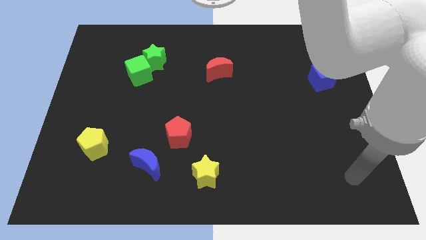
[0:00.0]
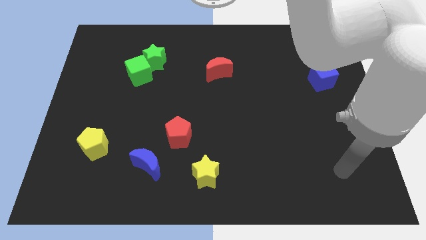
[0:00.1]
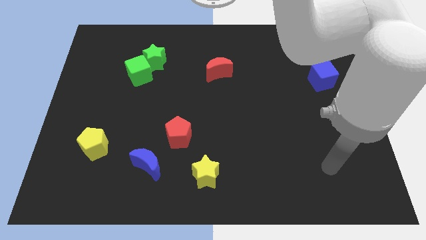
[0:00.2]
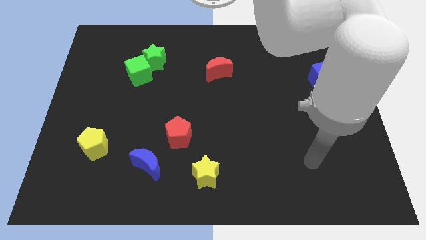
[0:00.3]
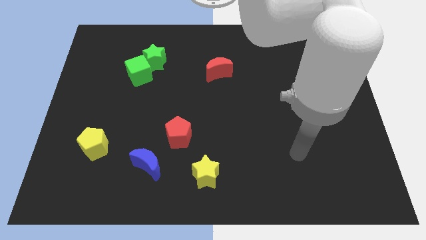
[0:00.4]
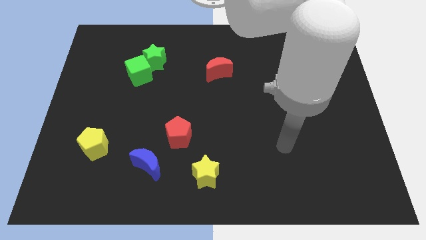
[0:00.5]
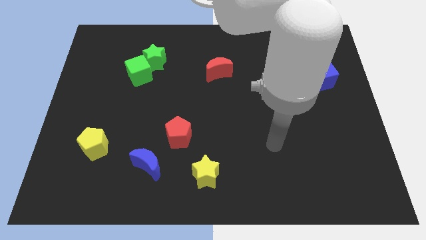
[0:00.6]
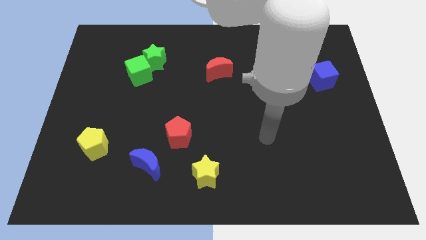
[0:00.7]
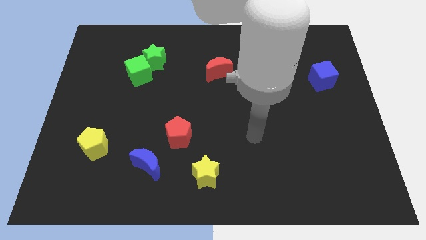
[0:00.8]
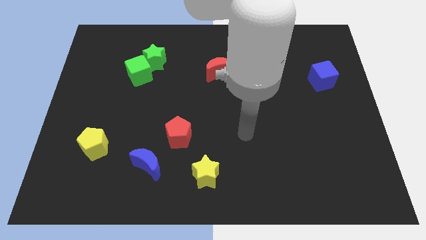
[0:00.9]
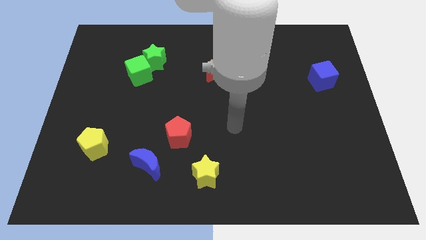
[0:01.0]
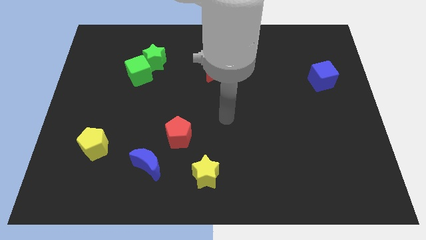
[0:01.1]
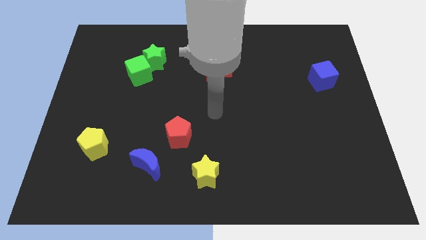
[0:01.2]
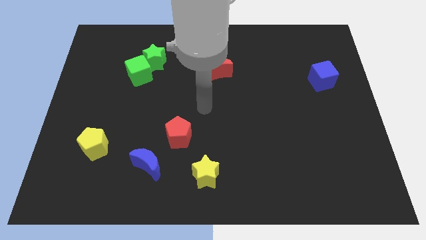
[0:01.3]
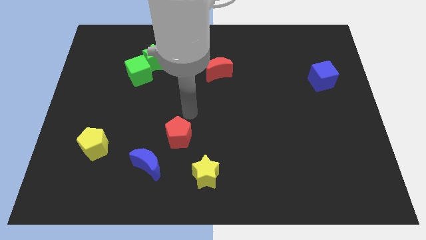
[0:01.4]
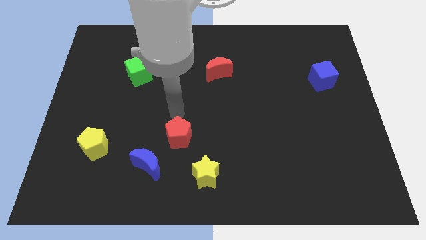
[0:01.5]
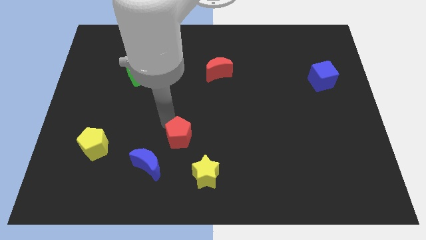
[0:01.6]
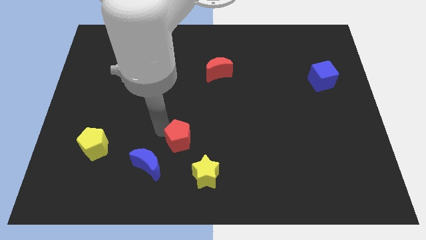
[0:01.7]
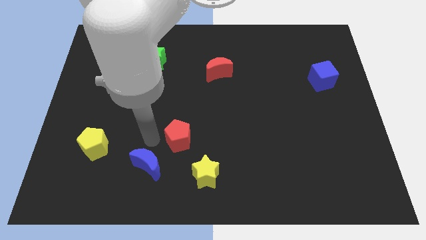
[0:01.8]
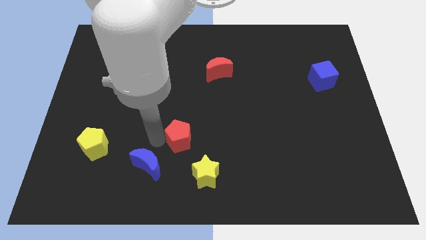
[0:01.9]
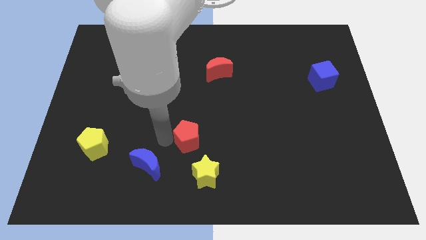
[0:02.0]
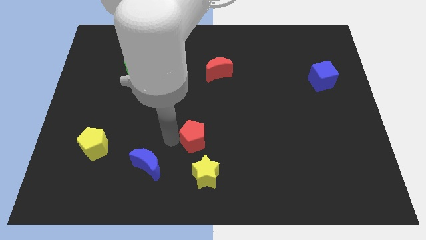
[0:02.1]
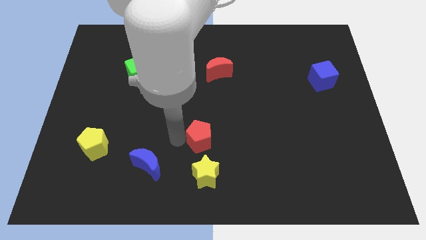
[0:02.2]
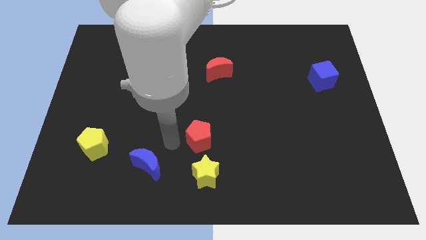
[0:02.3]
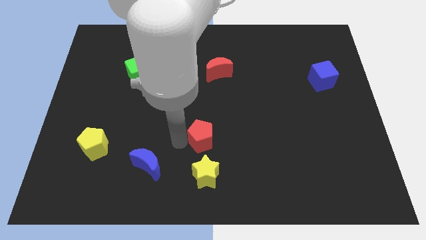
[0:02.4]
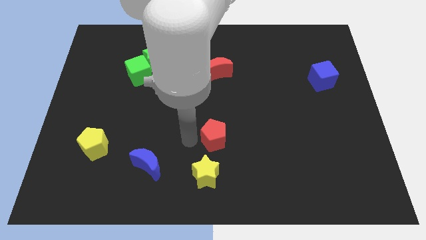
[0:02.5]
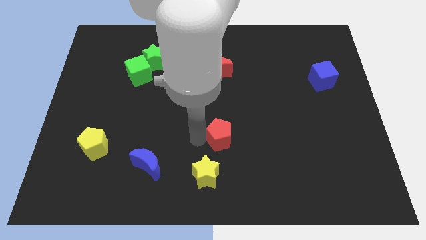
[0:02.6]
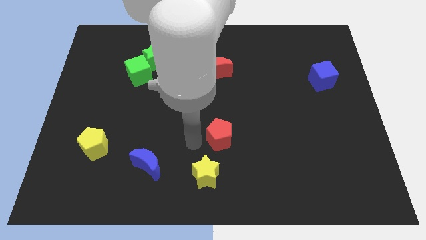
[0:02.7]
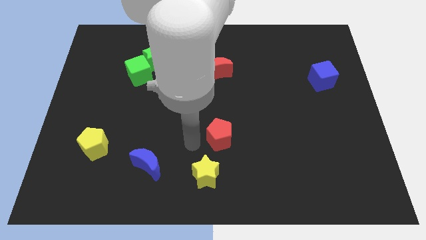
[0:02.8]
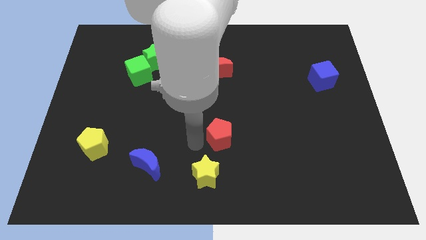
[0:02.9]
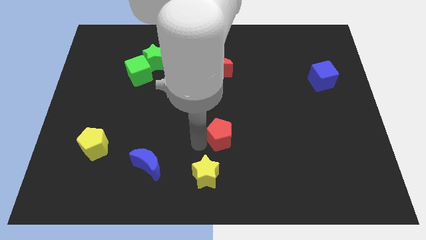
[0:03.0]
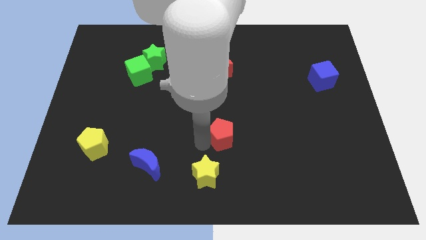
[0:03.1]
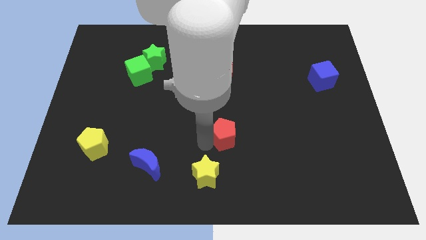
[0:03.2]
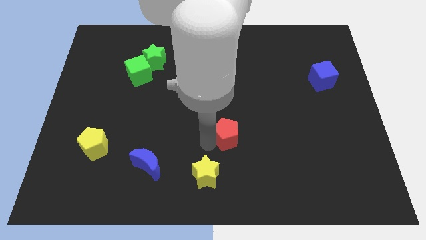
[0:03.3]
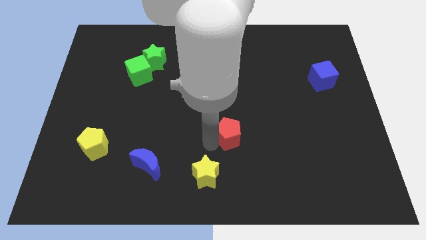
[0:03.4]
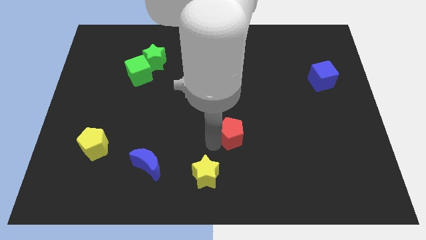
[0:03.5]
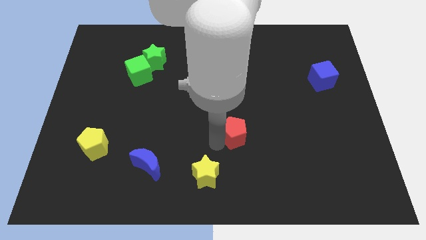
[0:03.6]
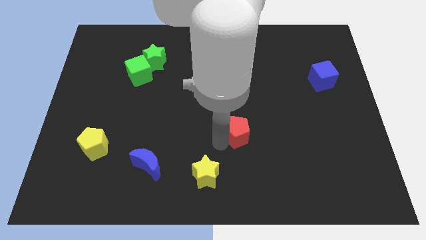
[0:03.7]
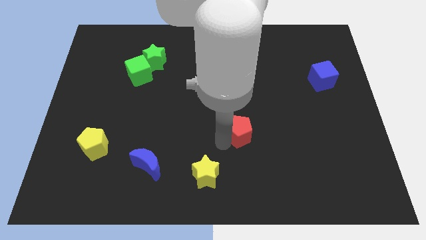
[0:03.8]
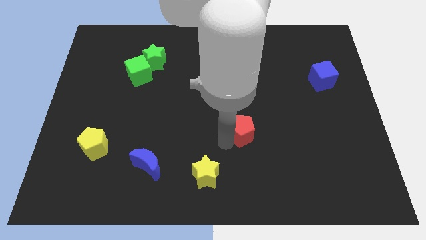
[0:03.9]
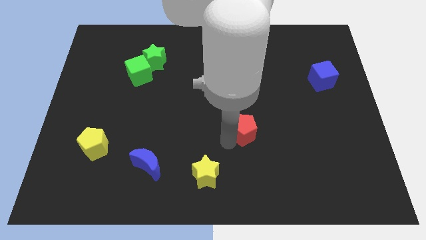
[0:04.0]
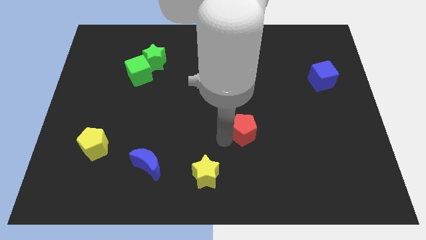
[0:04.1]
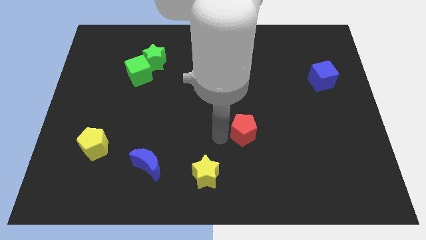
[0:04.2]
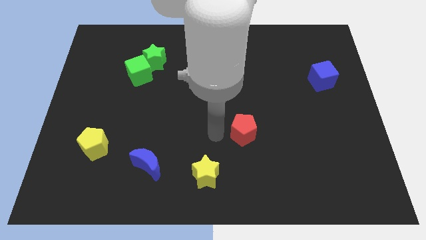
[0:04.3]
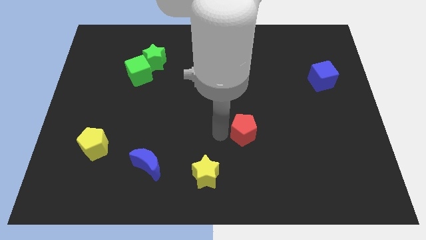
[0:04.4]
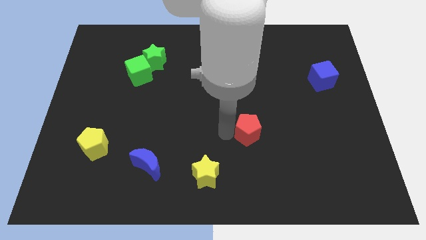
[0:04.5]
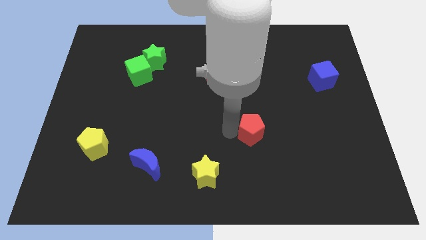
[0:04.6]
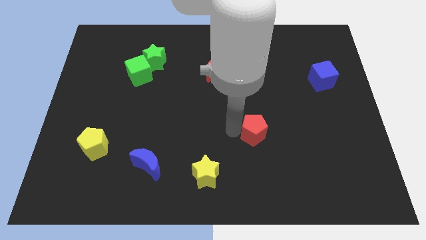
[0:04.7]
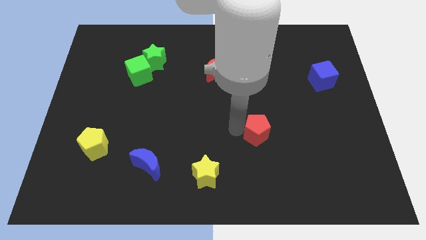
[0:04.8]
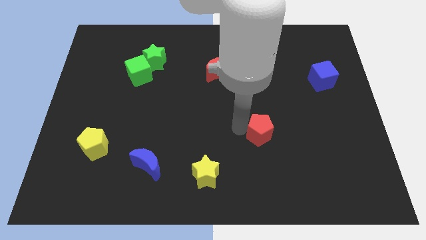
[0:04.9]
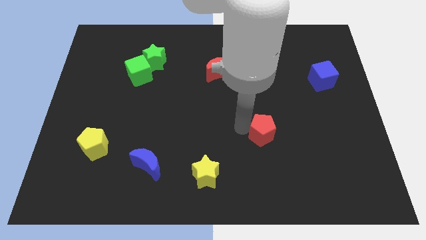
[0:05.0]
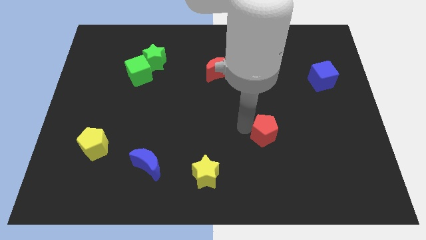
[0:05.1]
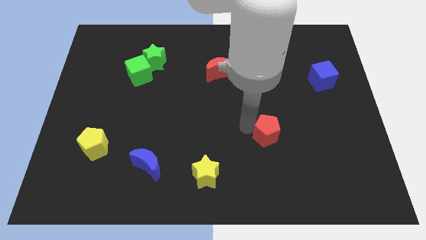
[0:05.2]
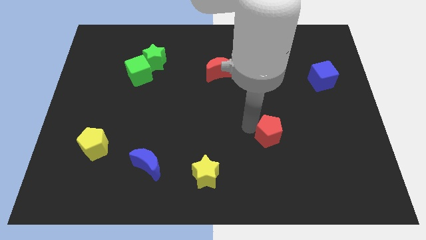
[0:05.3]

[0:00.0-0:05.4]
push the red pentagon to the right

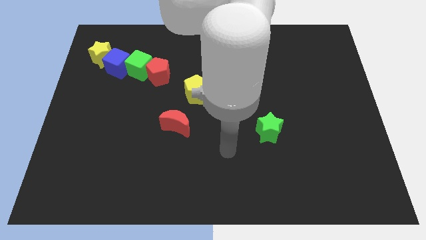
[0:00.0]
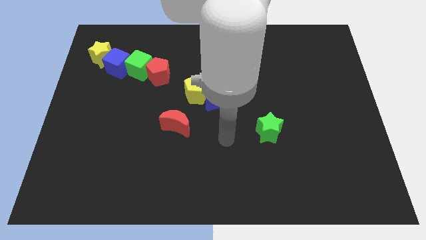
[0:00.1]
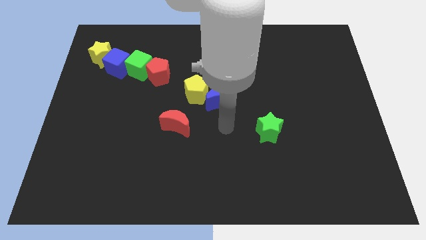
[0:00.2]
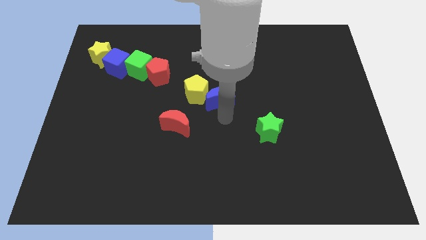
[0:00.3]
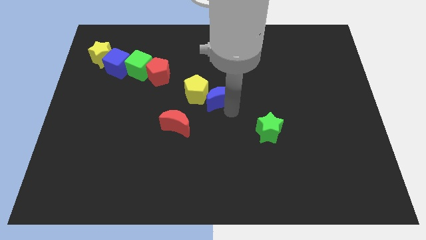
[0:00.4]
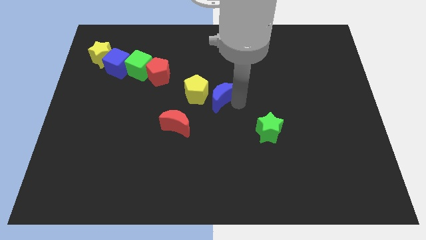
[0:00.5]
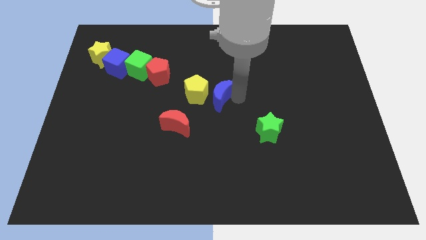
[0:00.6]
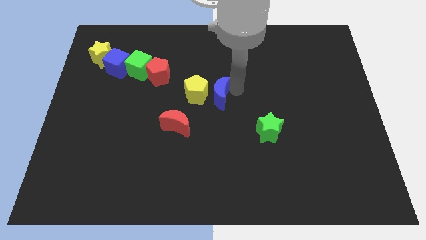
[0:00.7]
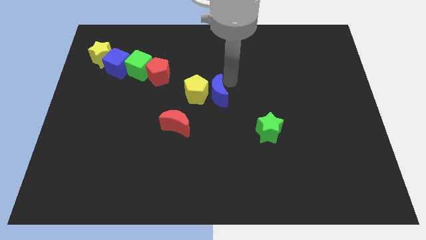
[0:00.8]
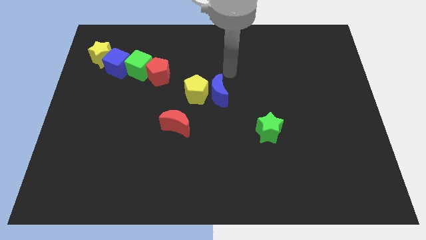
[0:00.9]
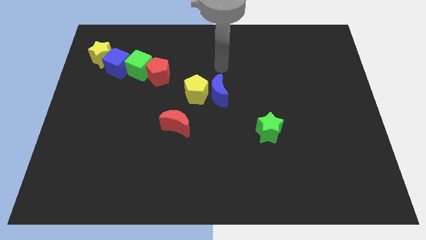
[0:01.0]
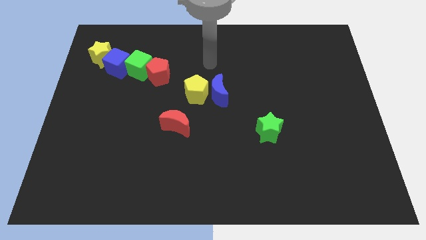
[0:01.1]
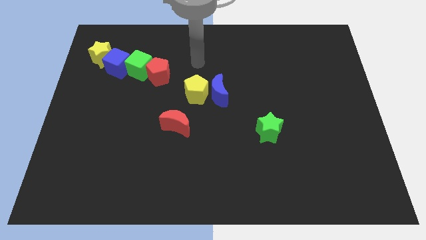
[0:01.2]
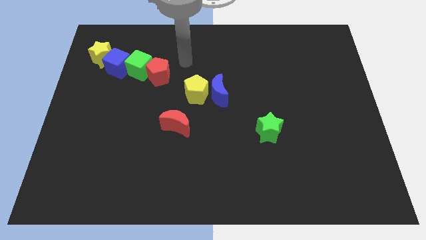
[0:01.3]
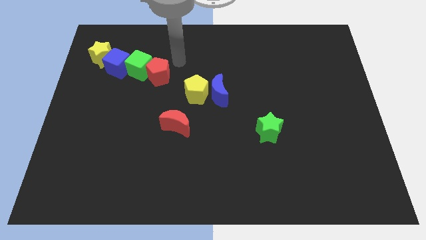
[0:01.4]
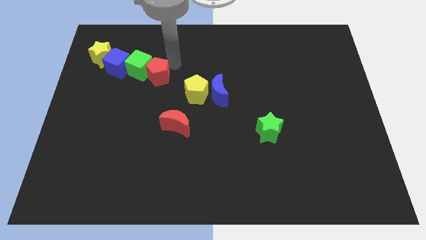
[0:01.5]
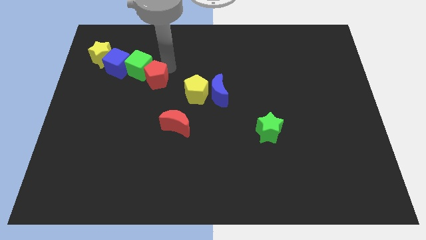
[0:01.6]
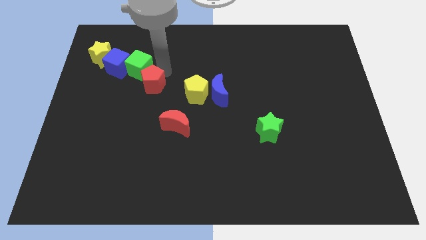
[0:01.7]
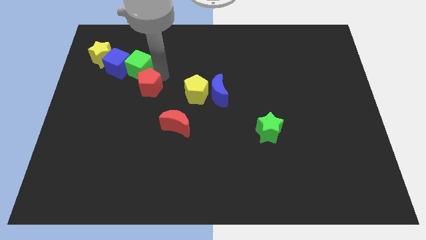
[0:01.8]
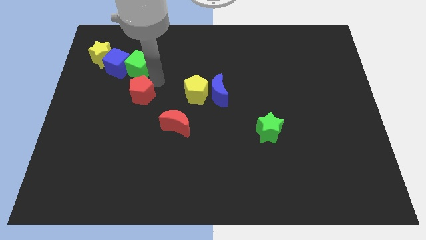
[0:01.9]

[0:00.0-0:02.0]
move the red pentagon somewhat down and to the left diagonally

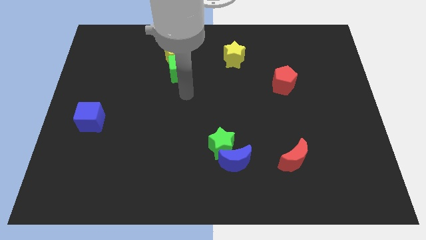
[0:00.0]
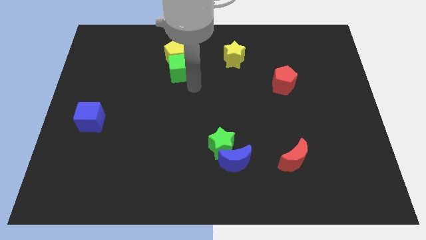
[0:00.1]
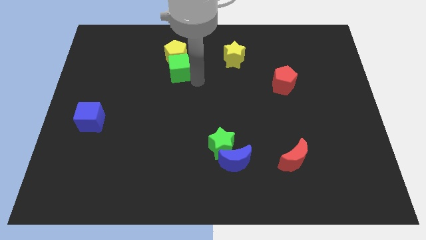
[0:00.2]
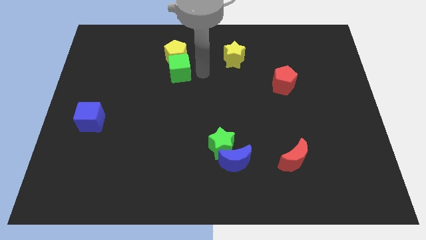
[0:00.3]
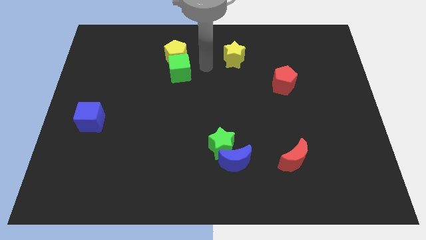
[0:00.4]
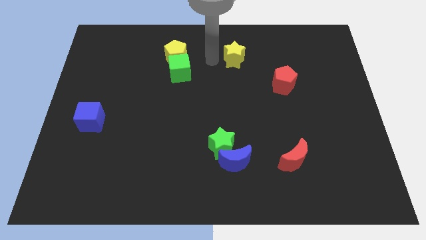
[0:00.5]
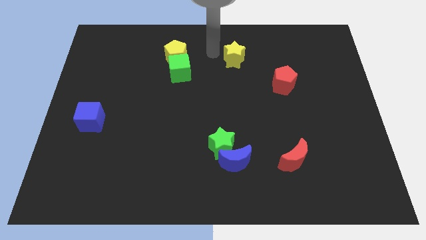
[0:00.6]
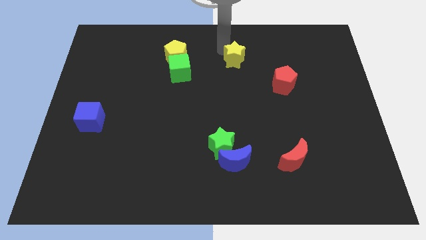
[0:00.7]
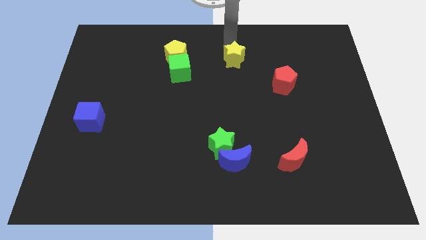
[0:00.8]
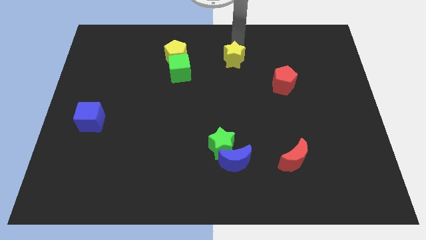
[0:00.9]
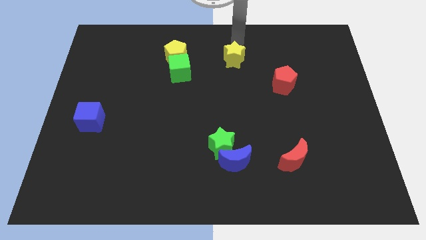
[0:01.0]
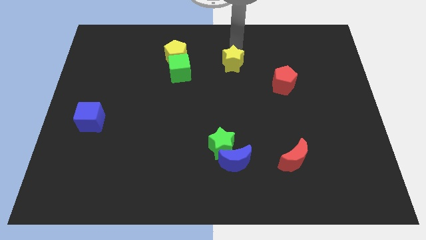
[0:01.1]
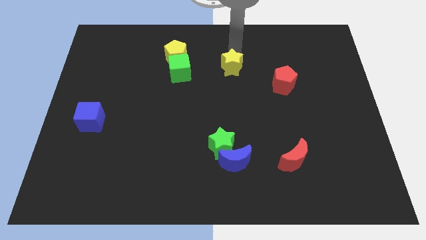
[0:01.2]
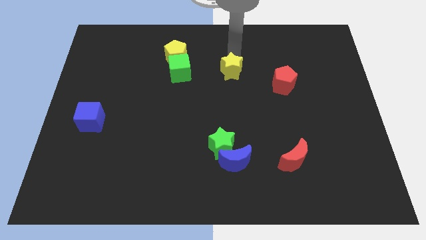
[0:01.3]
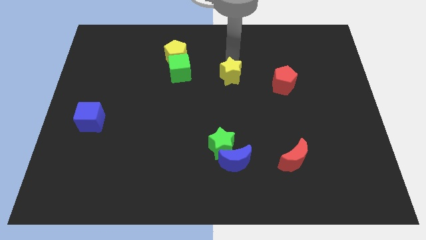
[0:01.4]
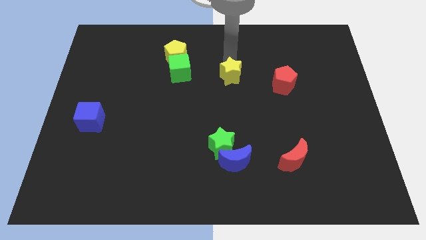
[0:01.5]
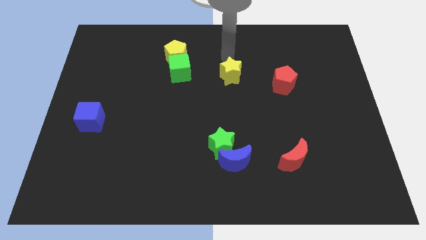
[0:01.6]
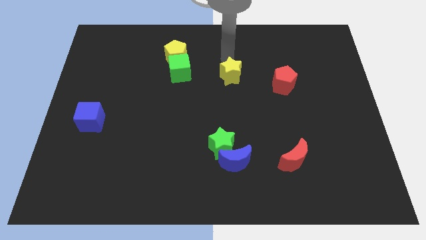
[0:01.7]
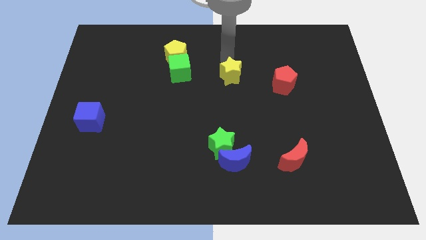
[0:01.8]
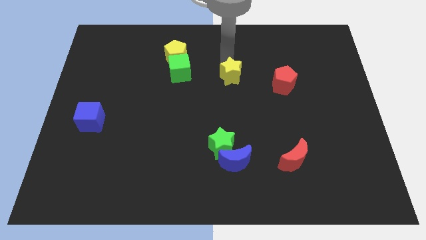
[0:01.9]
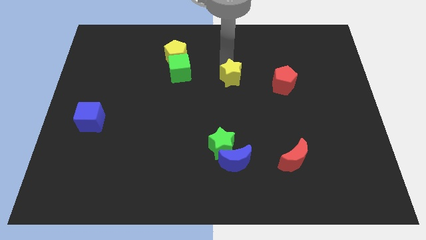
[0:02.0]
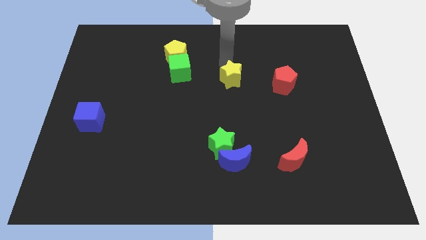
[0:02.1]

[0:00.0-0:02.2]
move the yellow star downwards a little bit
